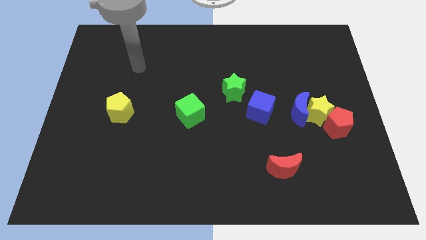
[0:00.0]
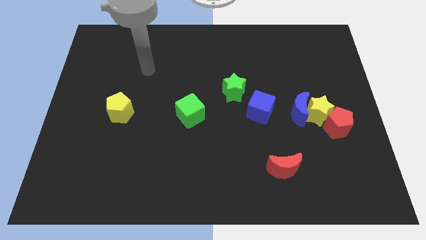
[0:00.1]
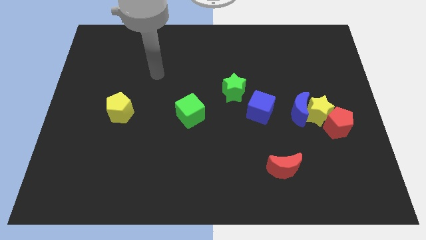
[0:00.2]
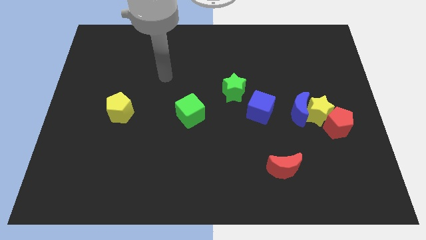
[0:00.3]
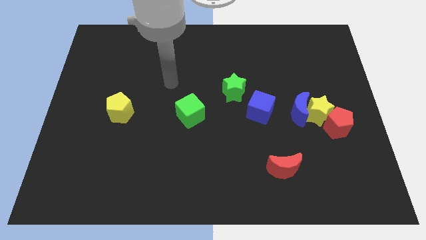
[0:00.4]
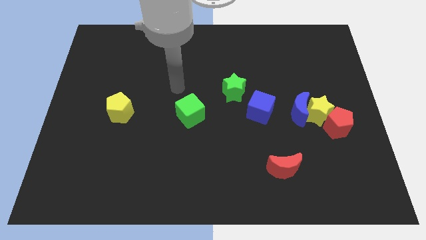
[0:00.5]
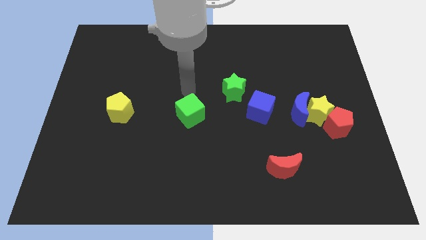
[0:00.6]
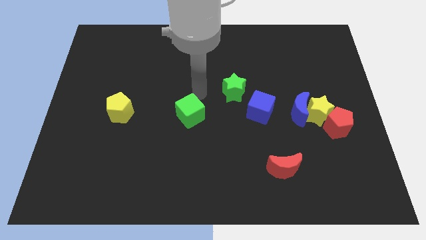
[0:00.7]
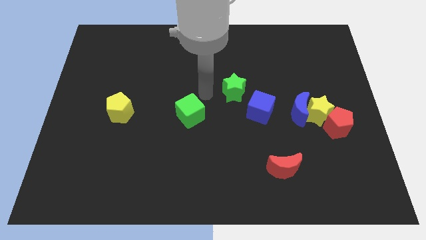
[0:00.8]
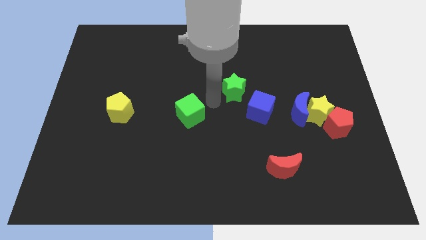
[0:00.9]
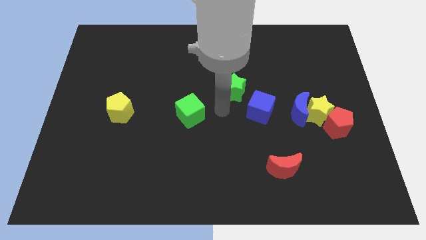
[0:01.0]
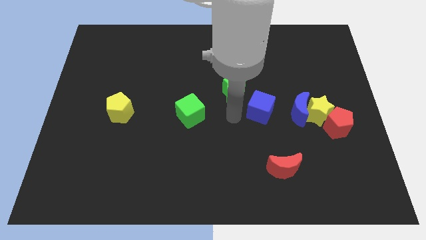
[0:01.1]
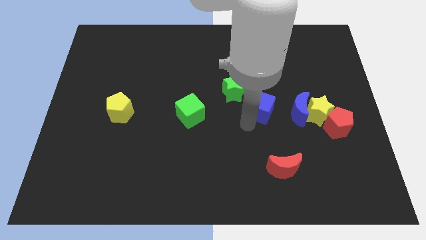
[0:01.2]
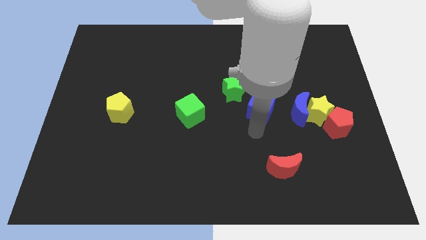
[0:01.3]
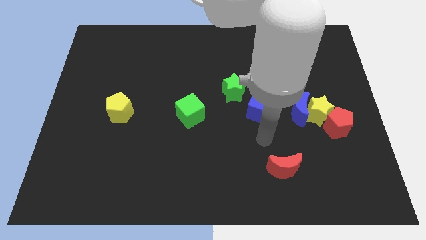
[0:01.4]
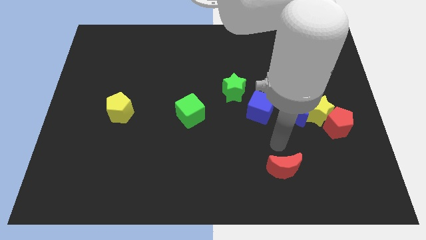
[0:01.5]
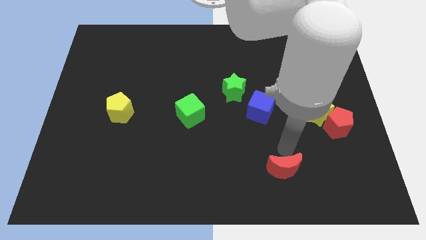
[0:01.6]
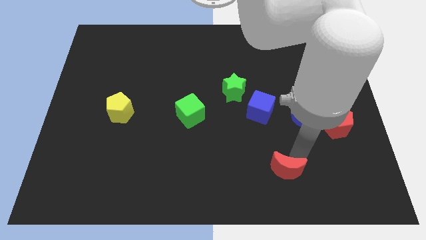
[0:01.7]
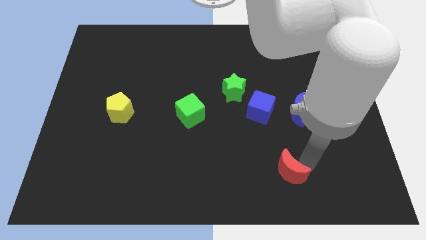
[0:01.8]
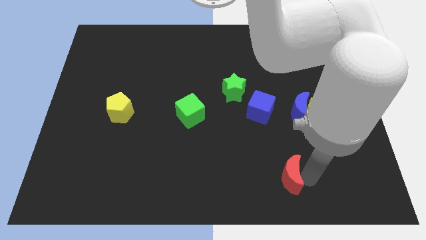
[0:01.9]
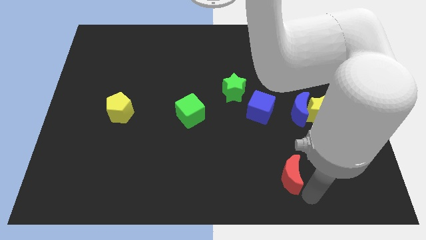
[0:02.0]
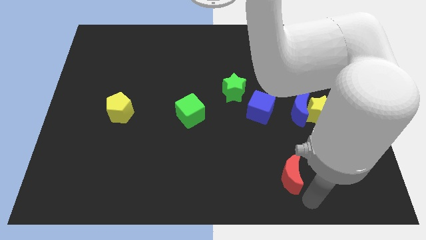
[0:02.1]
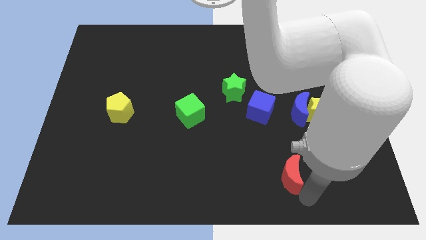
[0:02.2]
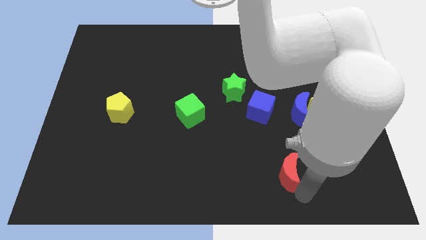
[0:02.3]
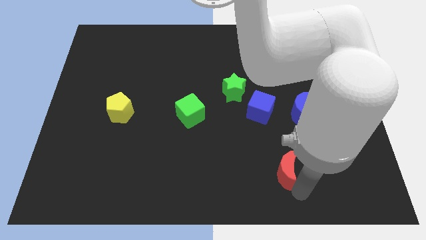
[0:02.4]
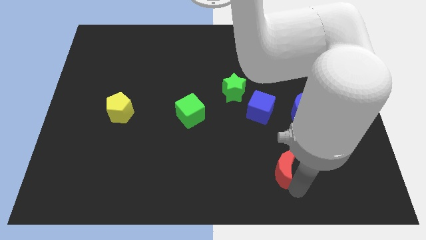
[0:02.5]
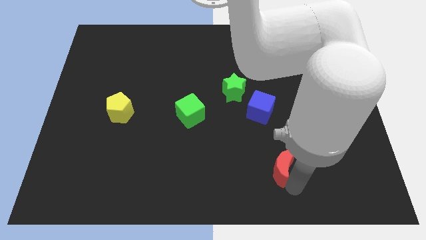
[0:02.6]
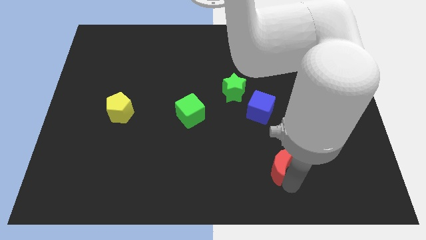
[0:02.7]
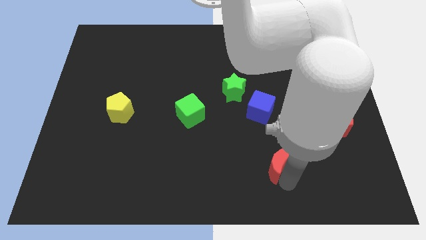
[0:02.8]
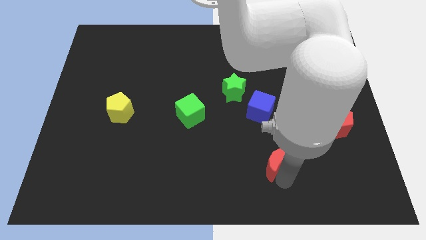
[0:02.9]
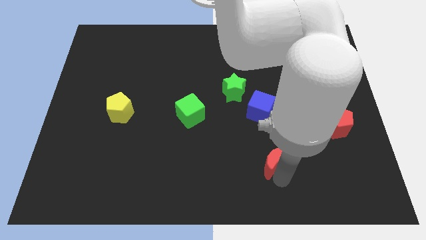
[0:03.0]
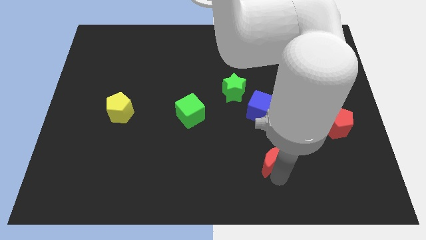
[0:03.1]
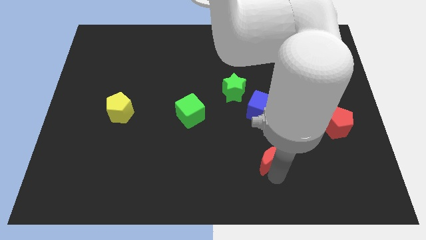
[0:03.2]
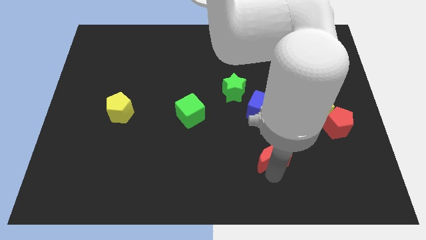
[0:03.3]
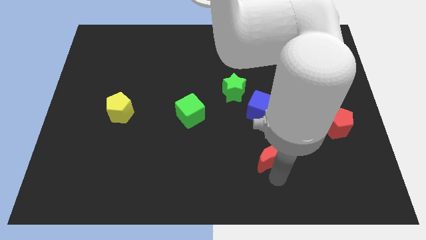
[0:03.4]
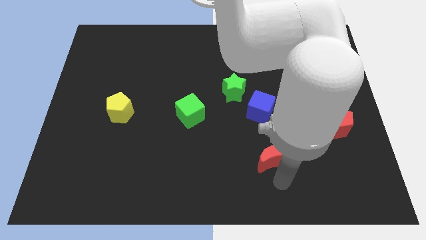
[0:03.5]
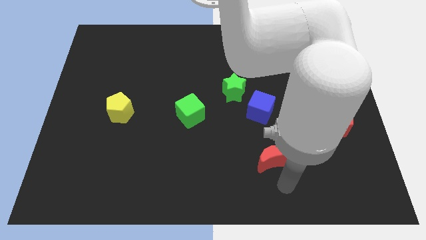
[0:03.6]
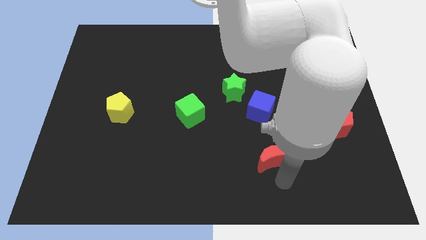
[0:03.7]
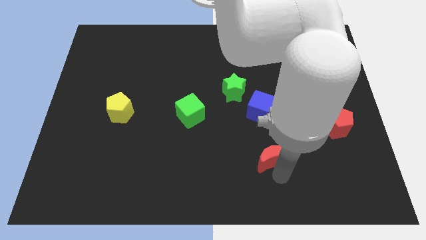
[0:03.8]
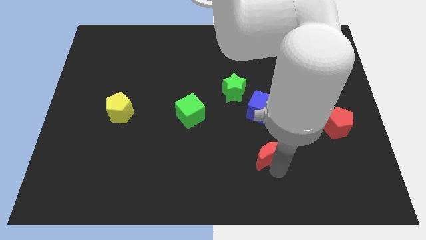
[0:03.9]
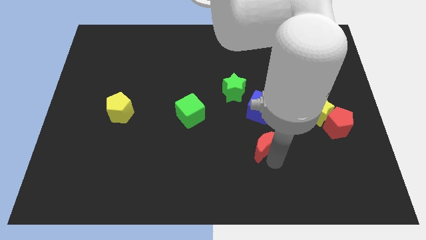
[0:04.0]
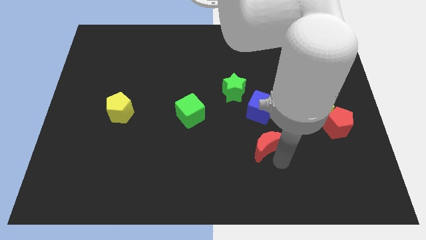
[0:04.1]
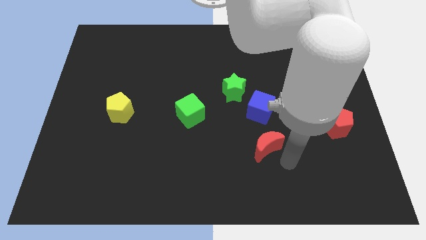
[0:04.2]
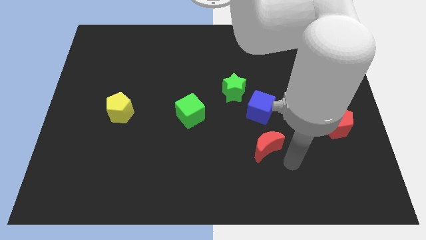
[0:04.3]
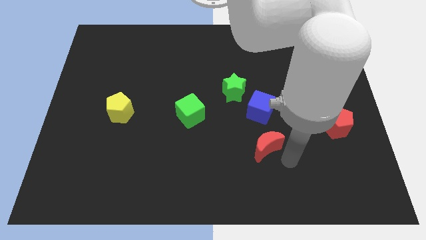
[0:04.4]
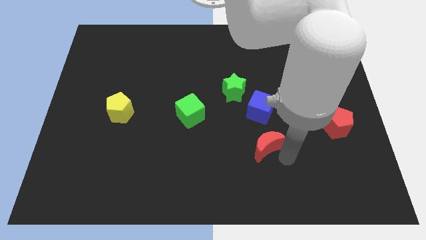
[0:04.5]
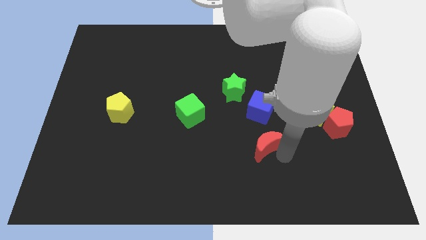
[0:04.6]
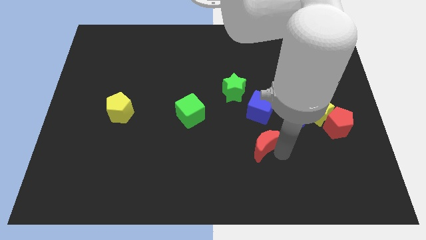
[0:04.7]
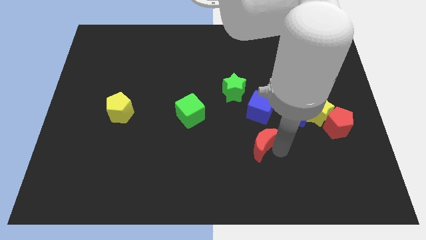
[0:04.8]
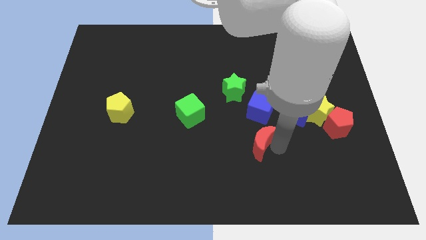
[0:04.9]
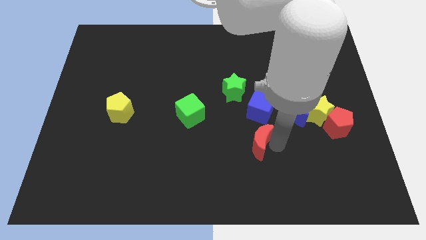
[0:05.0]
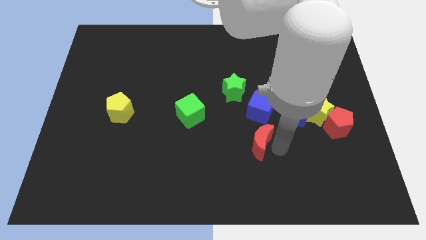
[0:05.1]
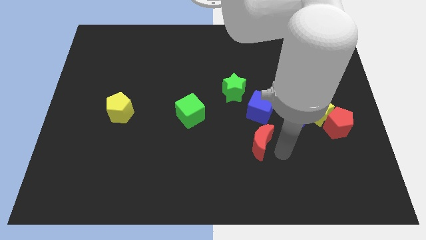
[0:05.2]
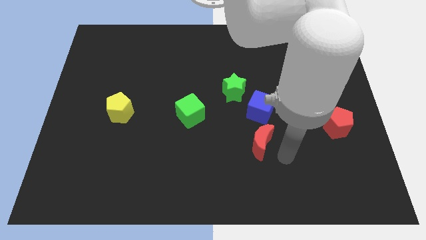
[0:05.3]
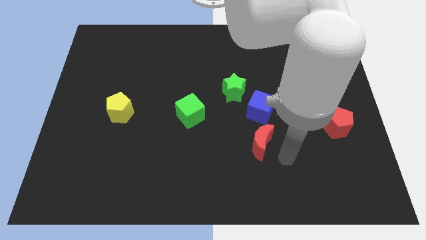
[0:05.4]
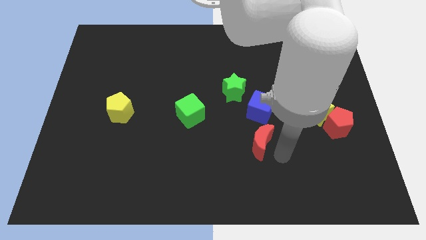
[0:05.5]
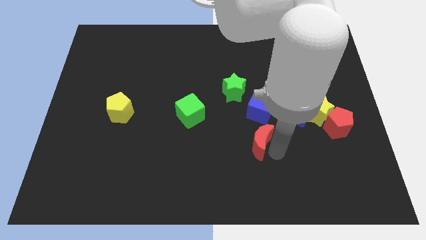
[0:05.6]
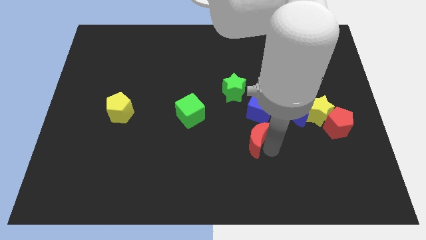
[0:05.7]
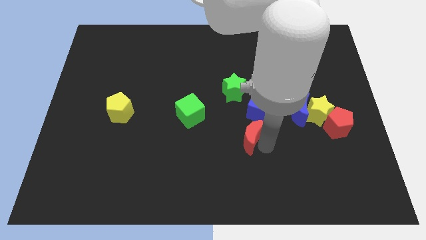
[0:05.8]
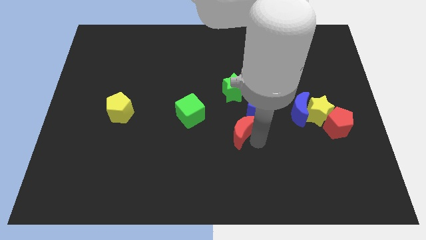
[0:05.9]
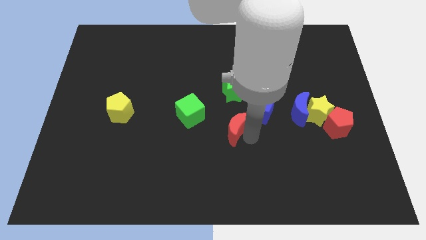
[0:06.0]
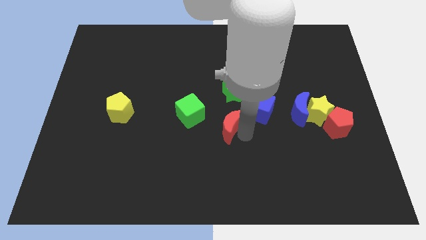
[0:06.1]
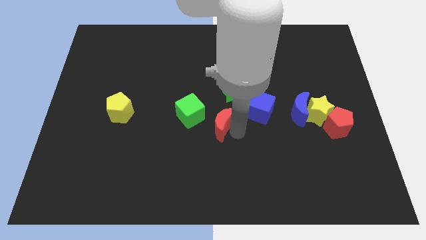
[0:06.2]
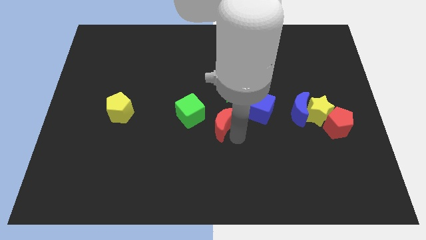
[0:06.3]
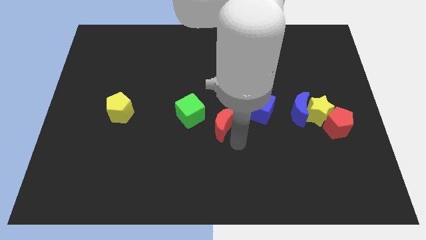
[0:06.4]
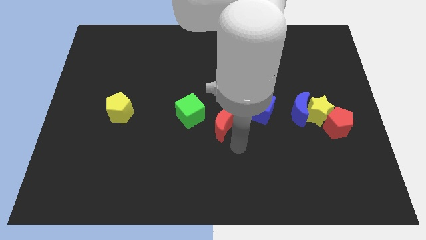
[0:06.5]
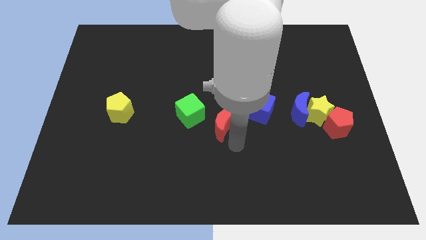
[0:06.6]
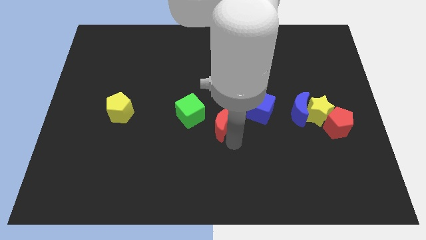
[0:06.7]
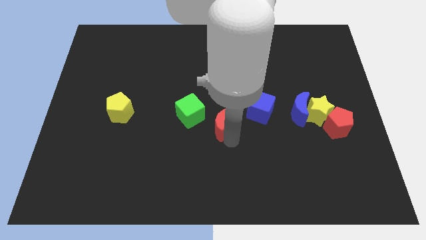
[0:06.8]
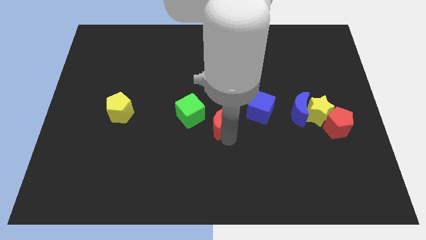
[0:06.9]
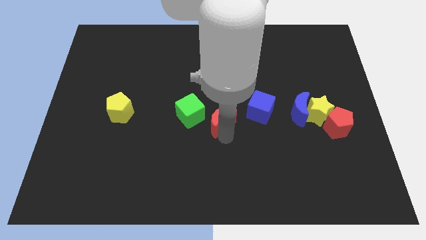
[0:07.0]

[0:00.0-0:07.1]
move the red moon diagonally down and to the left of the green star

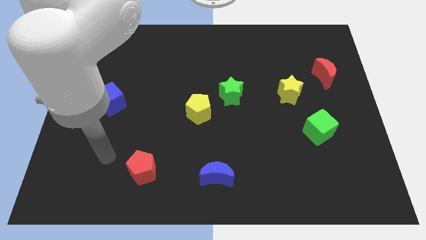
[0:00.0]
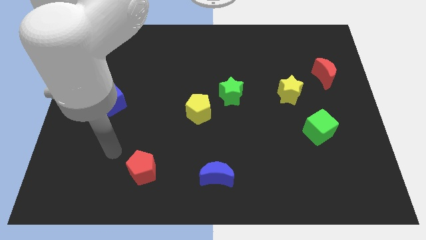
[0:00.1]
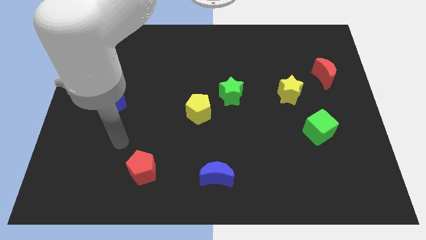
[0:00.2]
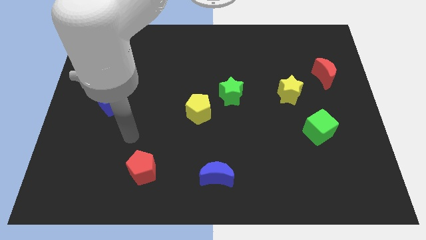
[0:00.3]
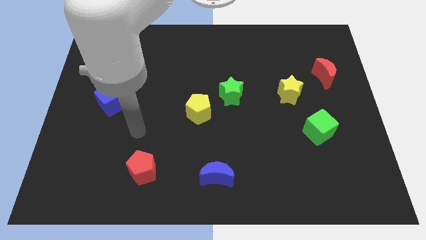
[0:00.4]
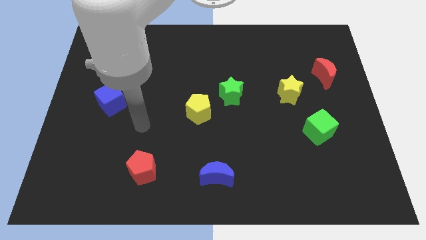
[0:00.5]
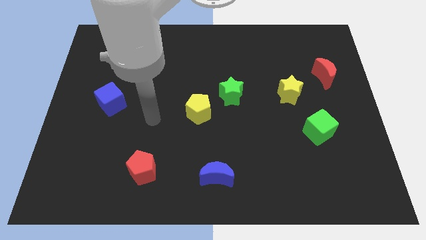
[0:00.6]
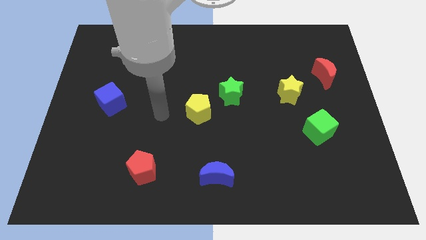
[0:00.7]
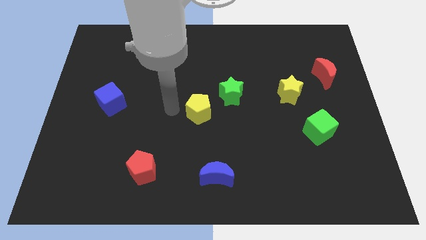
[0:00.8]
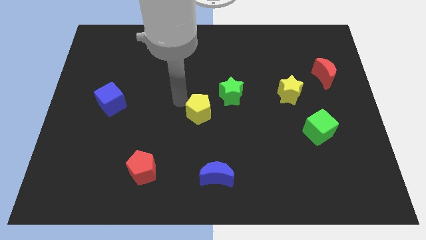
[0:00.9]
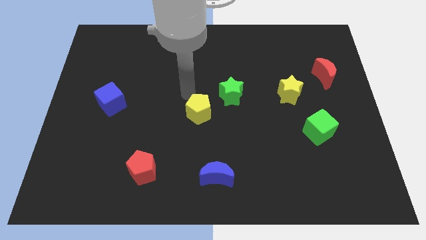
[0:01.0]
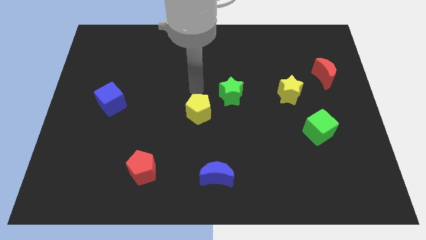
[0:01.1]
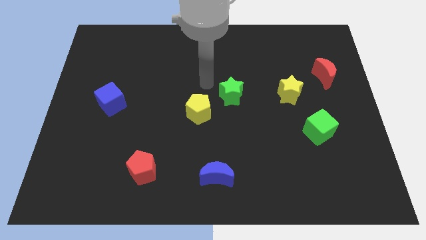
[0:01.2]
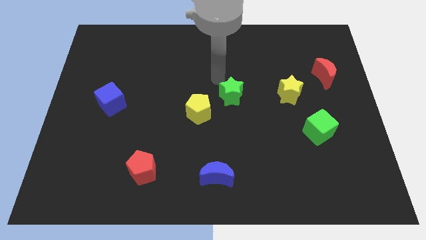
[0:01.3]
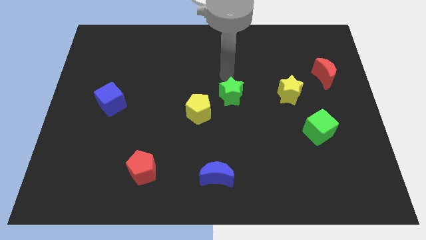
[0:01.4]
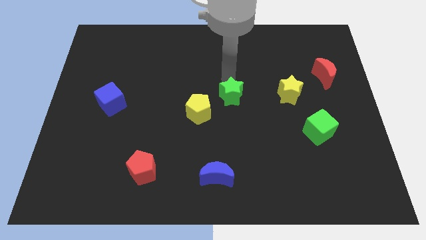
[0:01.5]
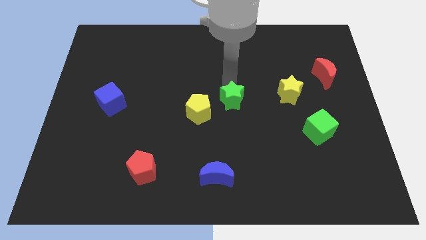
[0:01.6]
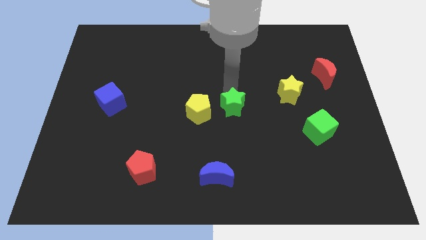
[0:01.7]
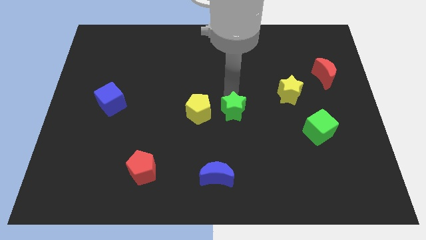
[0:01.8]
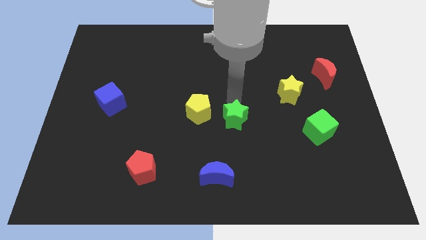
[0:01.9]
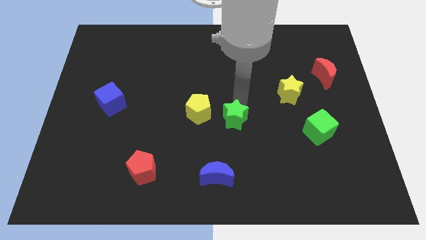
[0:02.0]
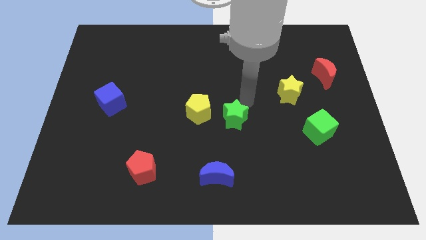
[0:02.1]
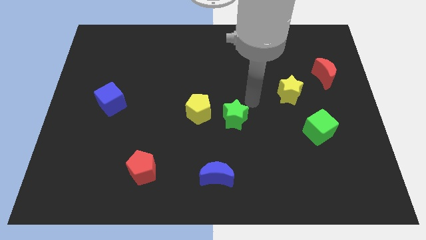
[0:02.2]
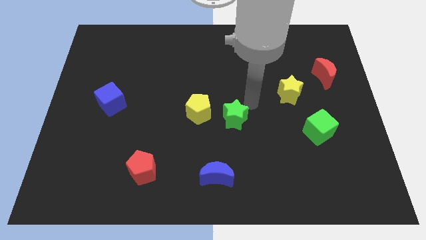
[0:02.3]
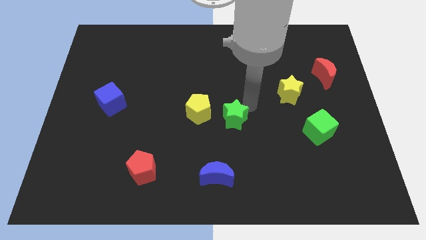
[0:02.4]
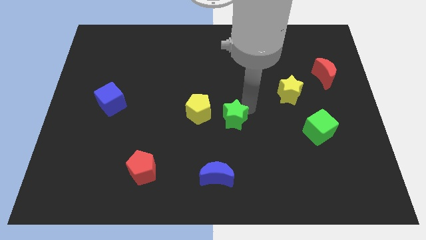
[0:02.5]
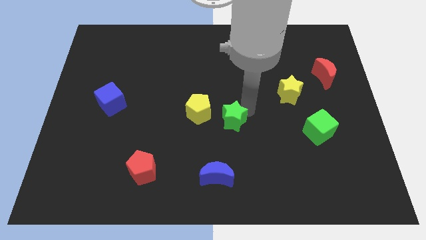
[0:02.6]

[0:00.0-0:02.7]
move the green star to the top of the blue moon
